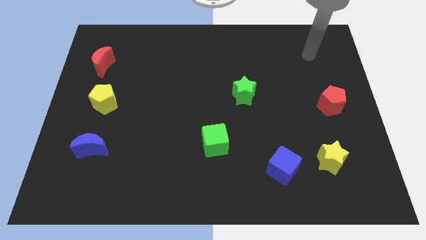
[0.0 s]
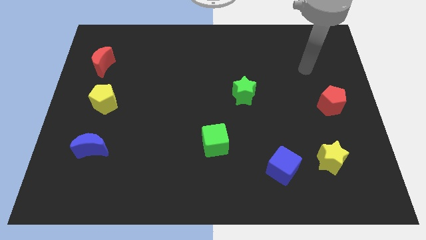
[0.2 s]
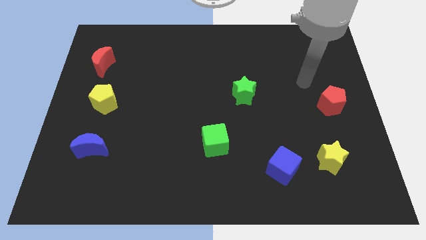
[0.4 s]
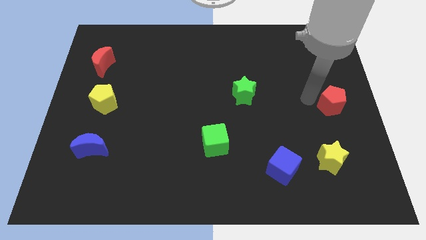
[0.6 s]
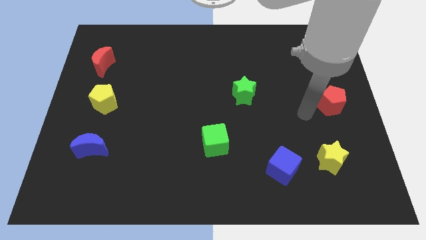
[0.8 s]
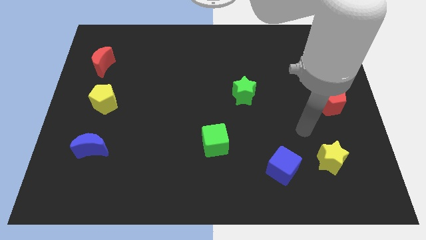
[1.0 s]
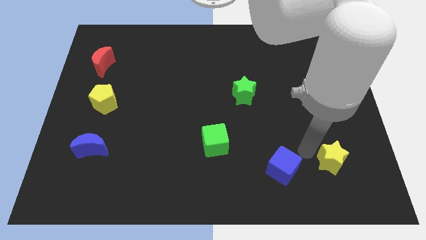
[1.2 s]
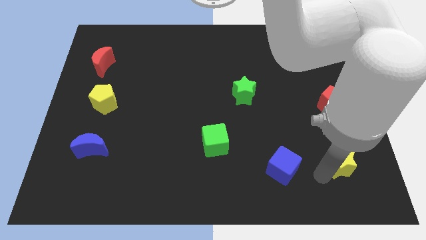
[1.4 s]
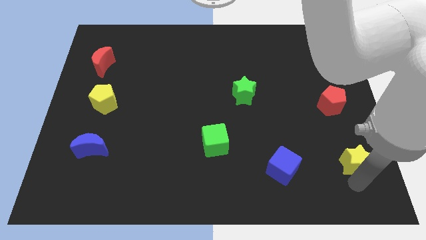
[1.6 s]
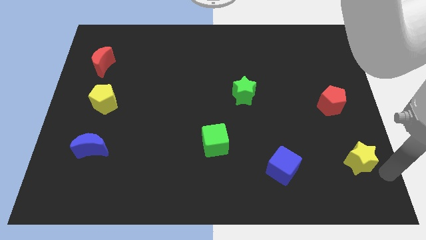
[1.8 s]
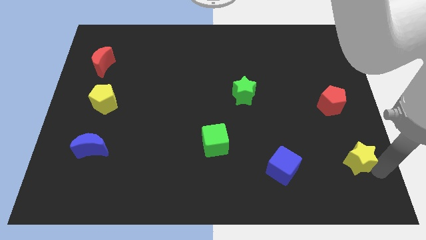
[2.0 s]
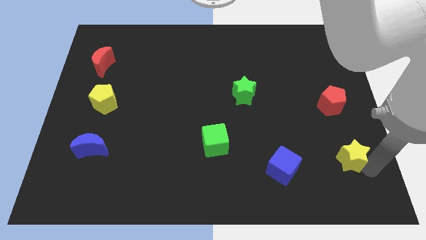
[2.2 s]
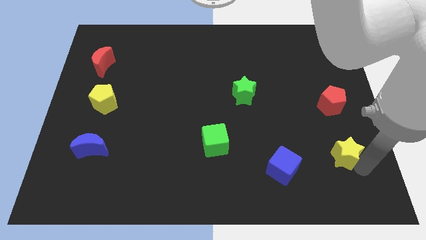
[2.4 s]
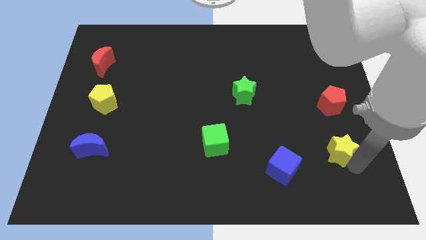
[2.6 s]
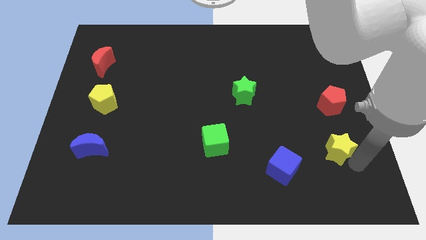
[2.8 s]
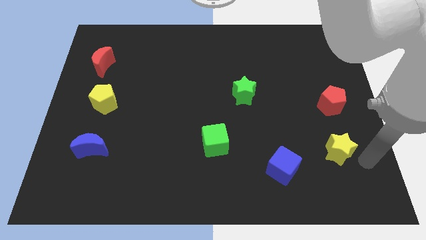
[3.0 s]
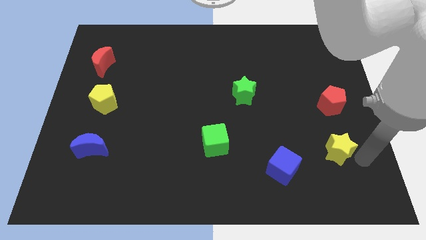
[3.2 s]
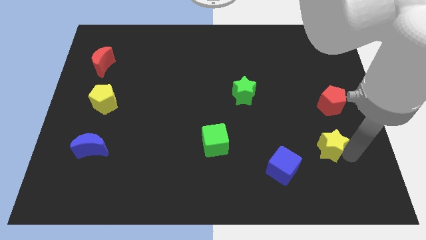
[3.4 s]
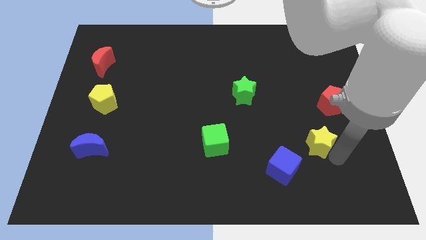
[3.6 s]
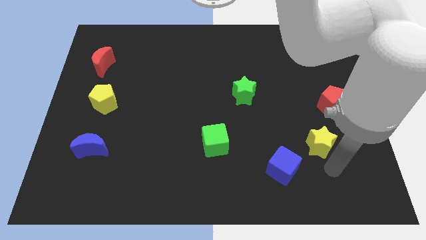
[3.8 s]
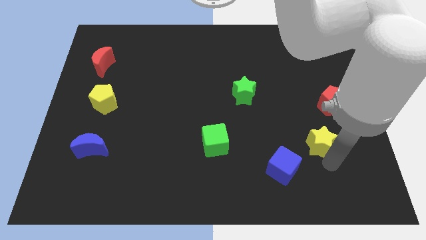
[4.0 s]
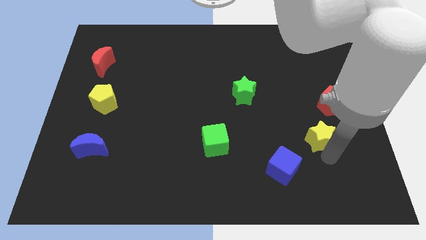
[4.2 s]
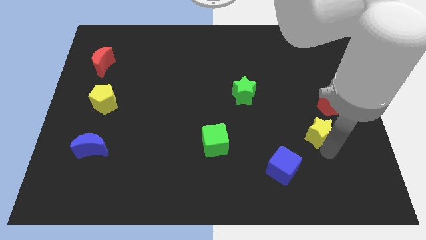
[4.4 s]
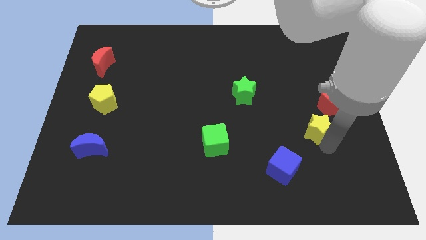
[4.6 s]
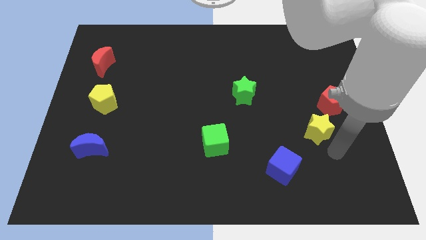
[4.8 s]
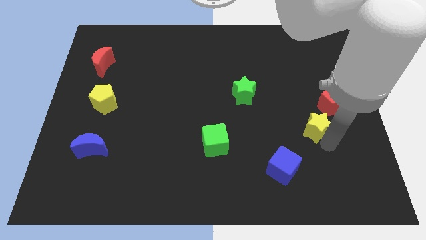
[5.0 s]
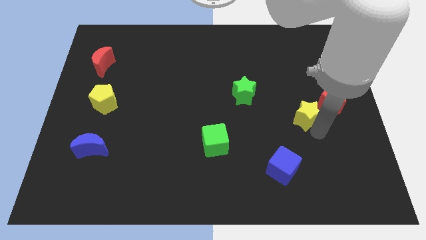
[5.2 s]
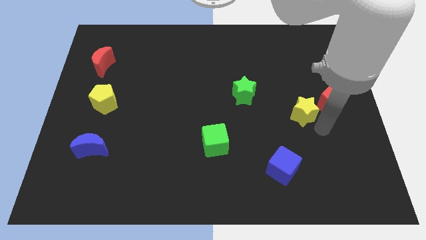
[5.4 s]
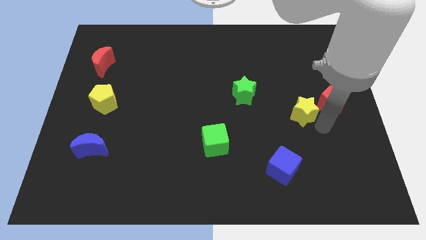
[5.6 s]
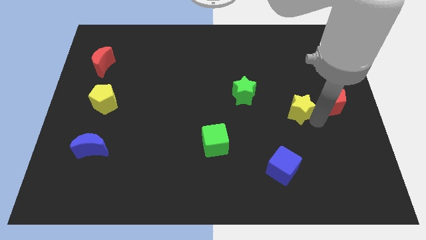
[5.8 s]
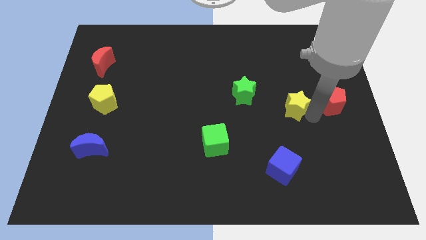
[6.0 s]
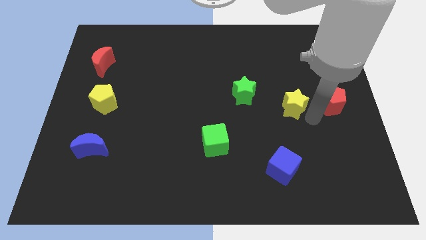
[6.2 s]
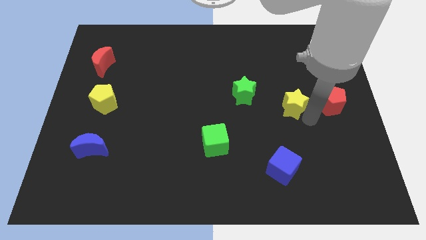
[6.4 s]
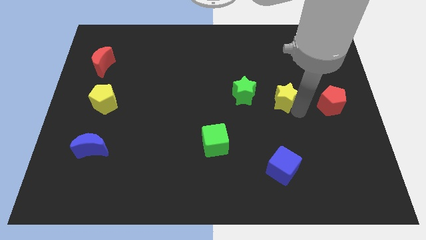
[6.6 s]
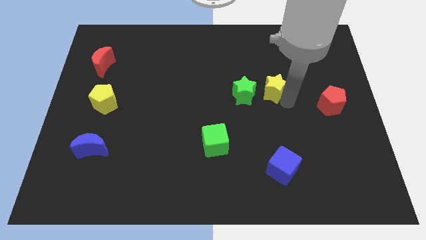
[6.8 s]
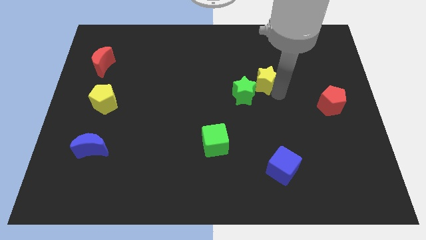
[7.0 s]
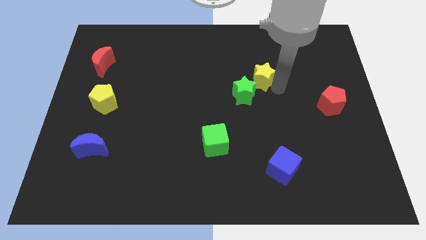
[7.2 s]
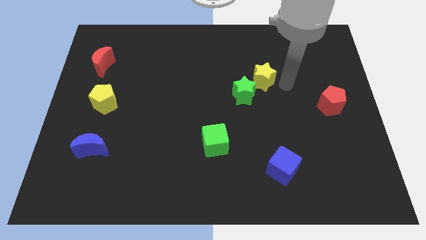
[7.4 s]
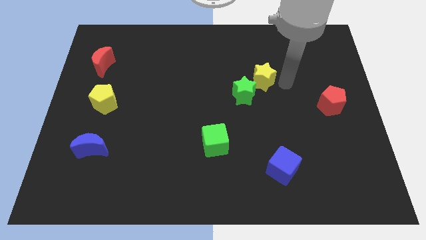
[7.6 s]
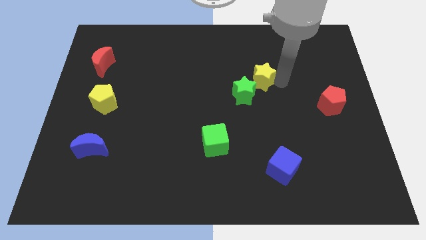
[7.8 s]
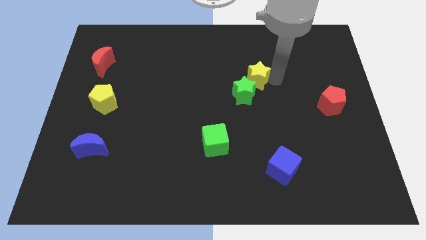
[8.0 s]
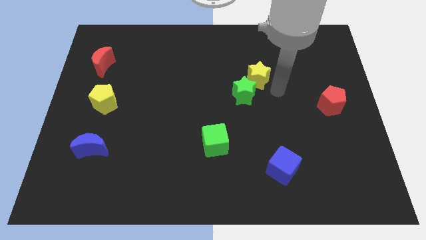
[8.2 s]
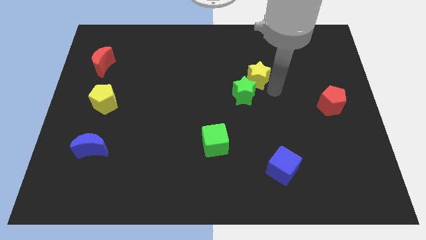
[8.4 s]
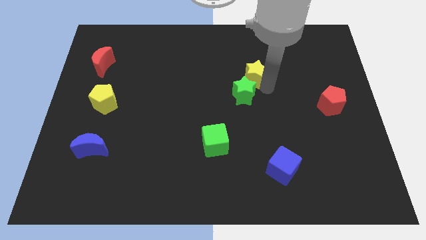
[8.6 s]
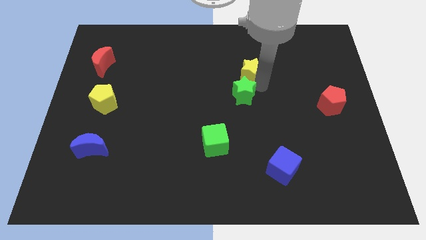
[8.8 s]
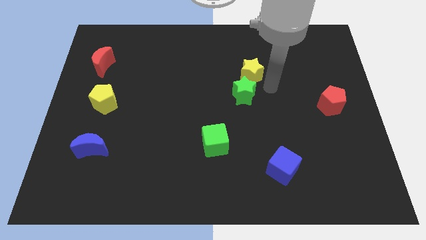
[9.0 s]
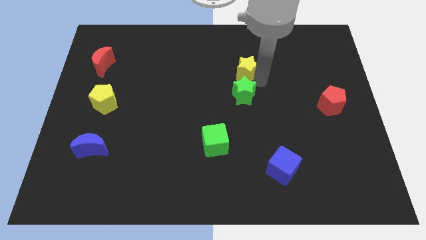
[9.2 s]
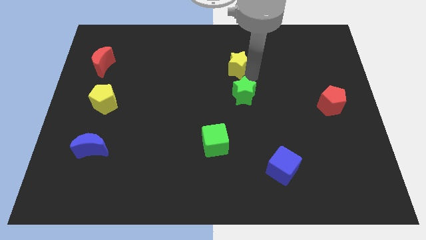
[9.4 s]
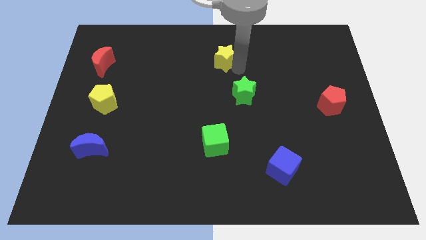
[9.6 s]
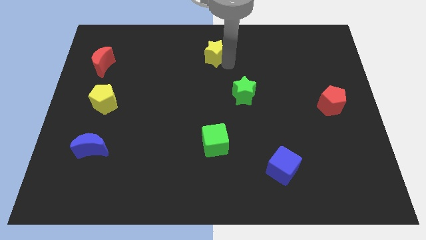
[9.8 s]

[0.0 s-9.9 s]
move the yellow star to the top side

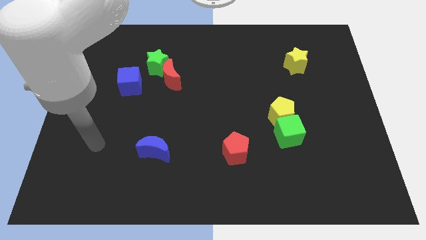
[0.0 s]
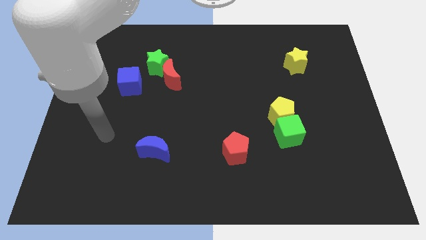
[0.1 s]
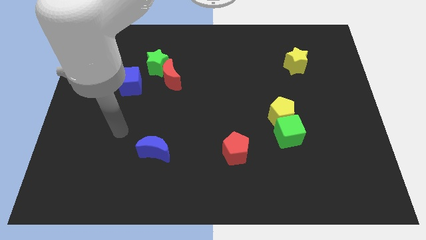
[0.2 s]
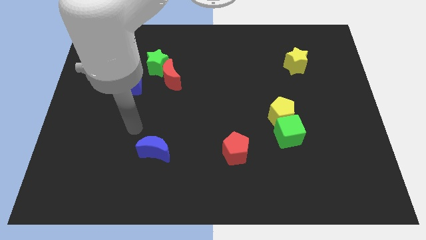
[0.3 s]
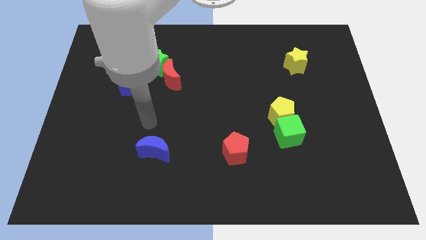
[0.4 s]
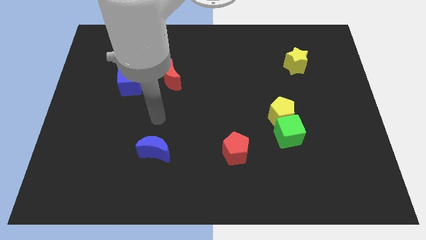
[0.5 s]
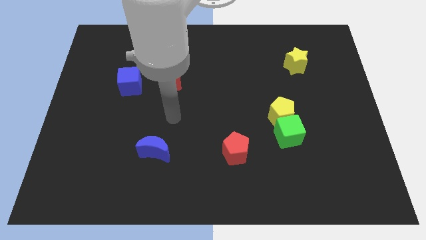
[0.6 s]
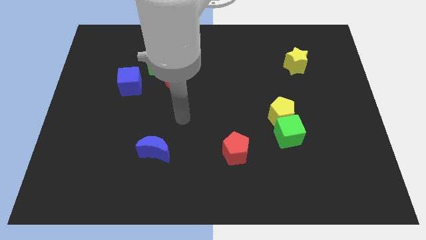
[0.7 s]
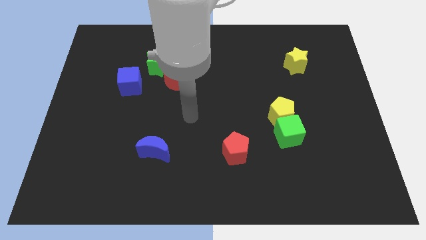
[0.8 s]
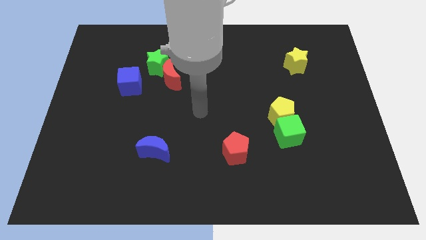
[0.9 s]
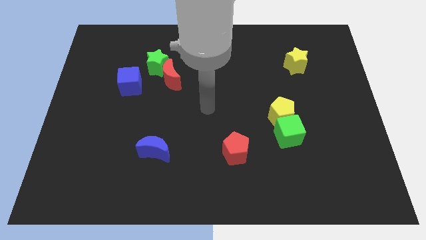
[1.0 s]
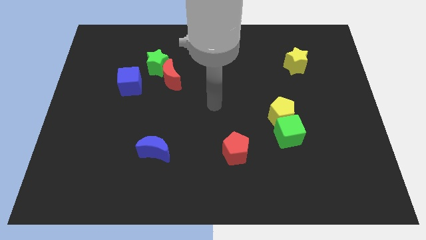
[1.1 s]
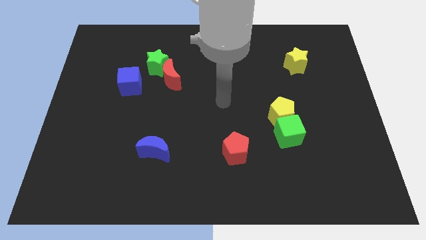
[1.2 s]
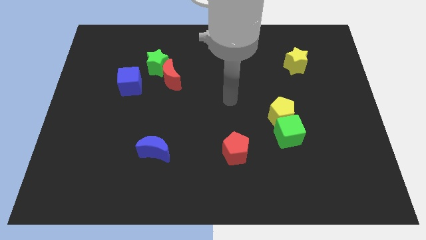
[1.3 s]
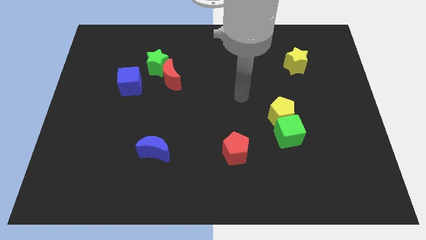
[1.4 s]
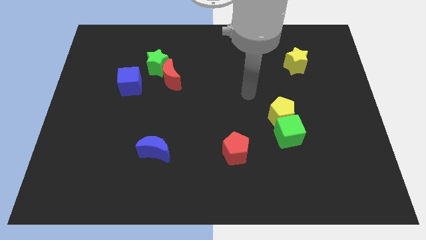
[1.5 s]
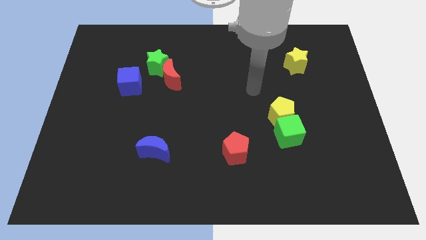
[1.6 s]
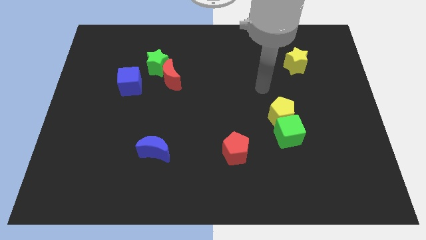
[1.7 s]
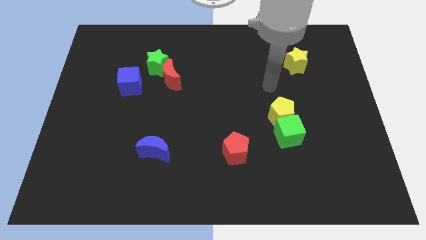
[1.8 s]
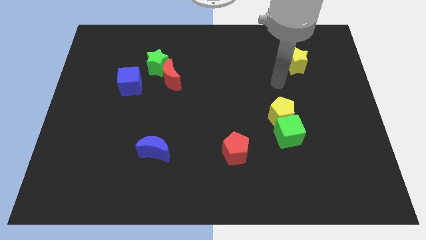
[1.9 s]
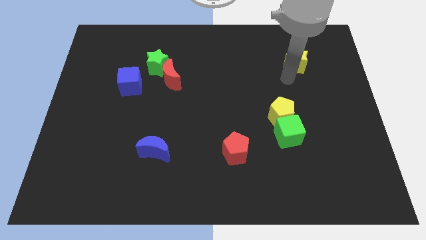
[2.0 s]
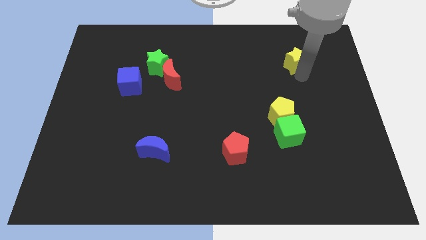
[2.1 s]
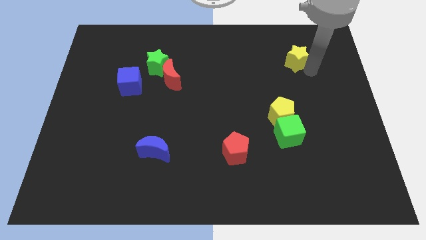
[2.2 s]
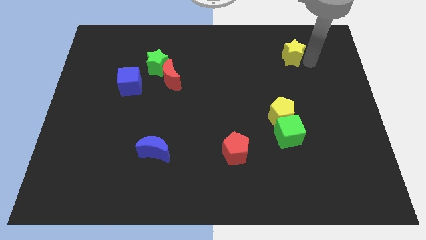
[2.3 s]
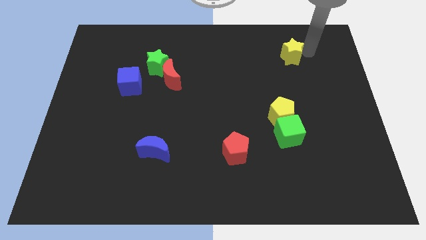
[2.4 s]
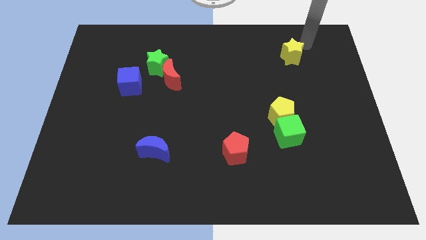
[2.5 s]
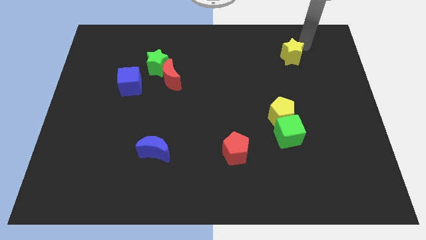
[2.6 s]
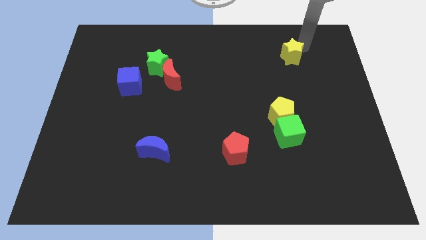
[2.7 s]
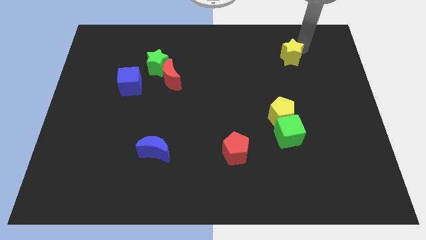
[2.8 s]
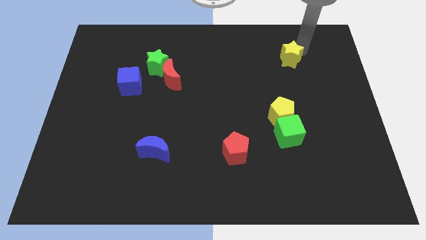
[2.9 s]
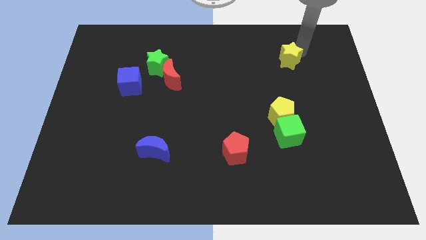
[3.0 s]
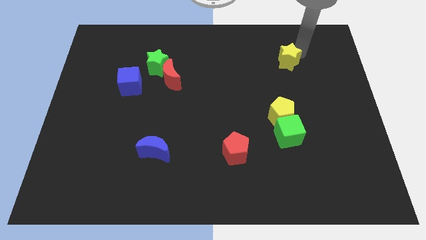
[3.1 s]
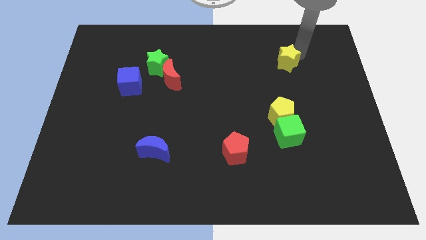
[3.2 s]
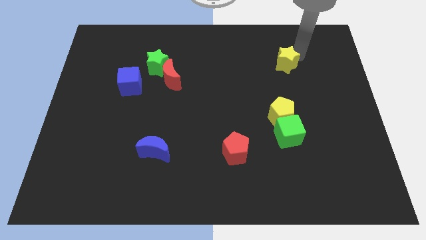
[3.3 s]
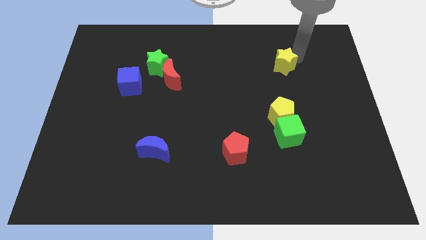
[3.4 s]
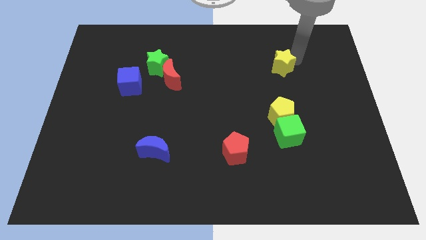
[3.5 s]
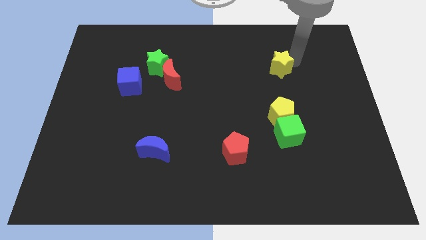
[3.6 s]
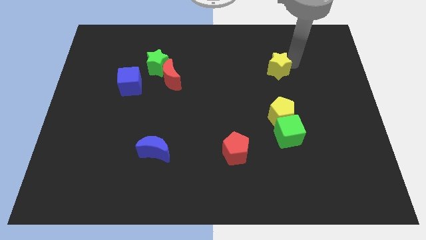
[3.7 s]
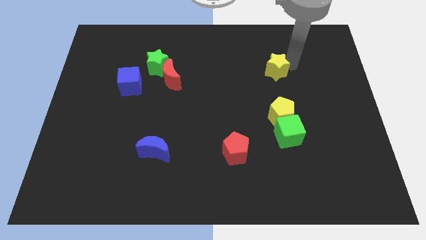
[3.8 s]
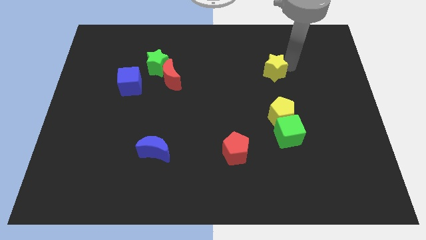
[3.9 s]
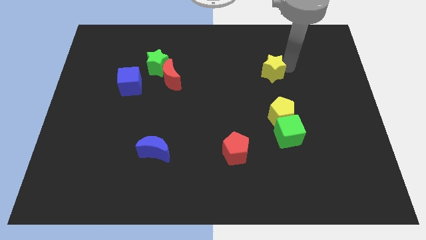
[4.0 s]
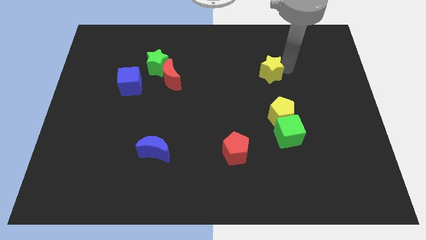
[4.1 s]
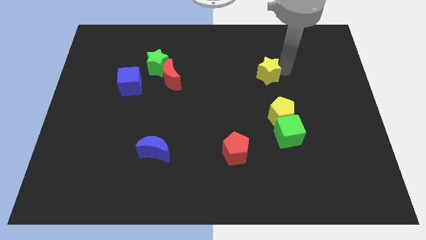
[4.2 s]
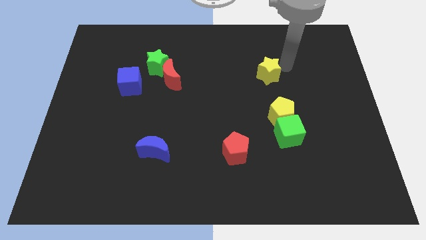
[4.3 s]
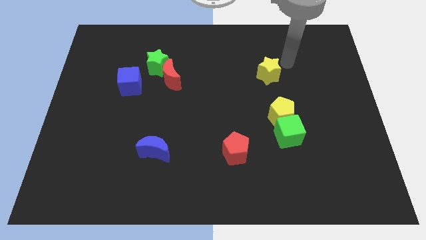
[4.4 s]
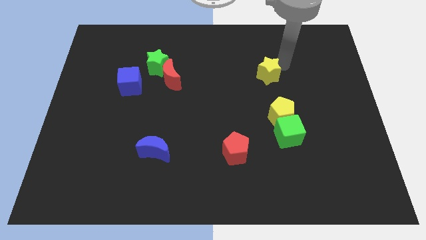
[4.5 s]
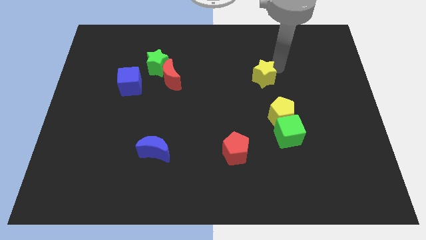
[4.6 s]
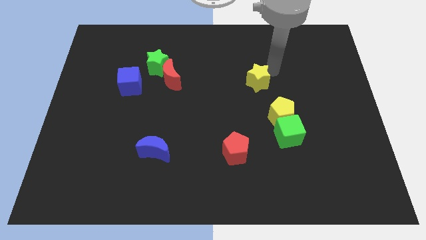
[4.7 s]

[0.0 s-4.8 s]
slide the yellow star to the center
